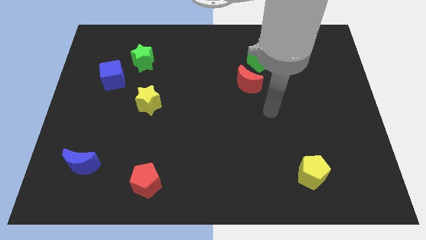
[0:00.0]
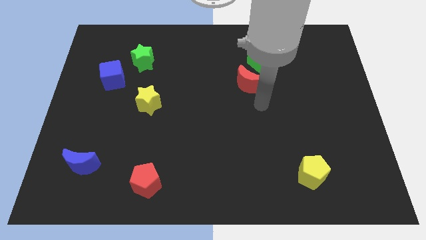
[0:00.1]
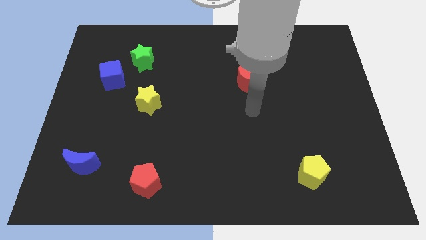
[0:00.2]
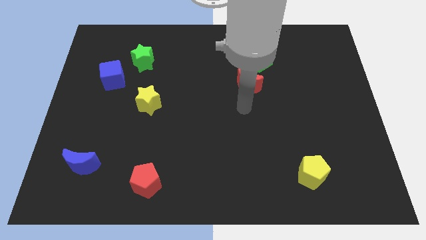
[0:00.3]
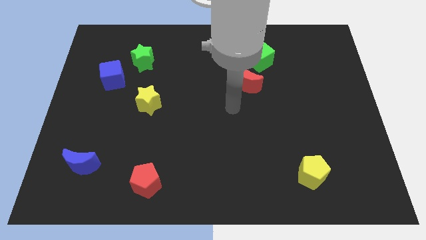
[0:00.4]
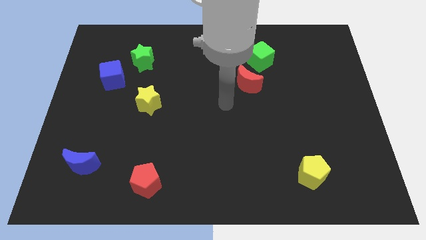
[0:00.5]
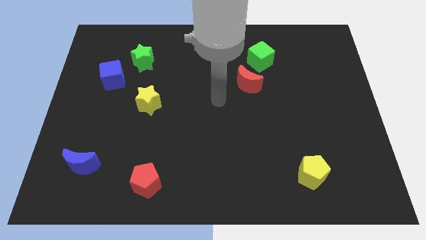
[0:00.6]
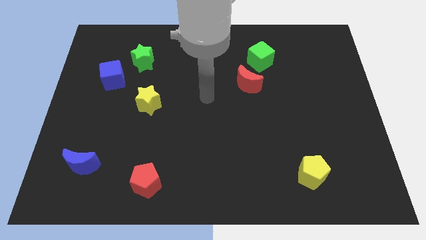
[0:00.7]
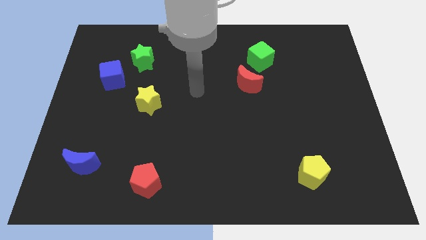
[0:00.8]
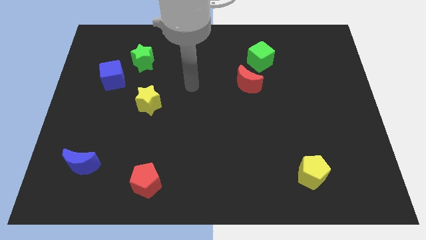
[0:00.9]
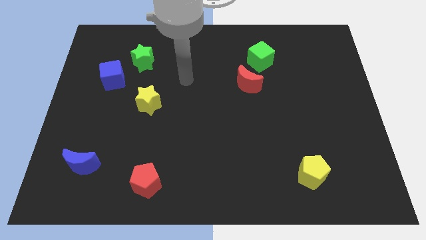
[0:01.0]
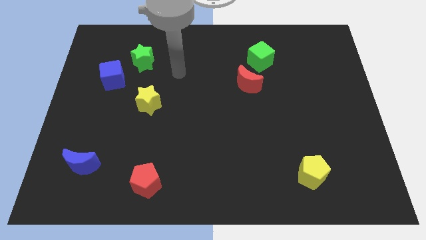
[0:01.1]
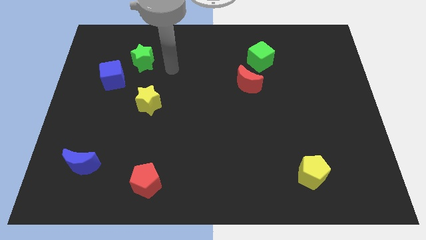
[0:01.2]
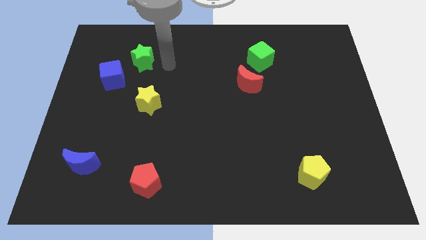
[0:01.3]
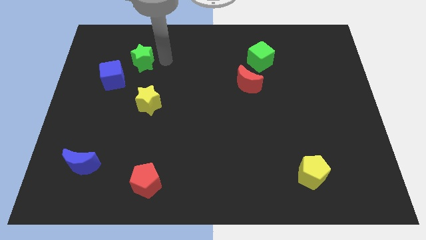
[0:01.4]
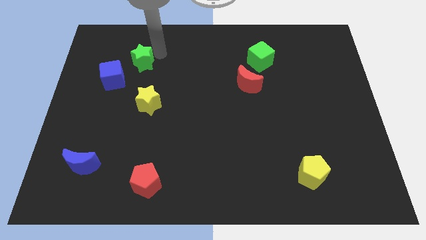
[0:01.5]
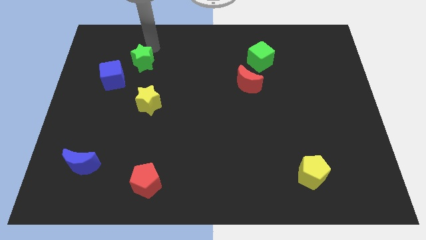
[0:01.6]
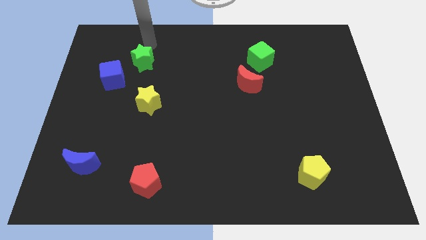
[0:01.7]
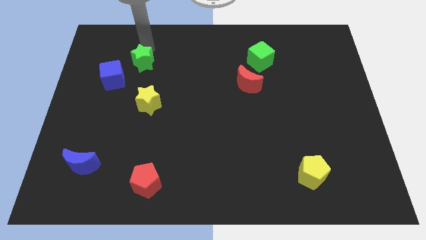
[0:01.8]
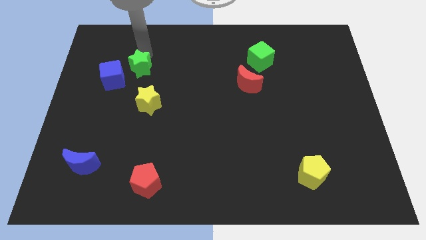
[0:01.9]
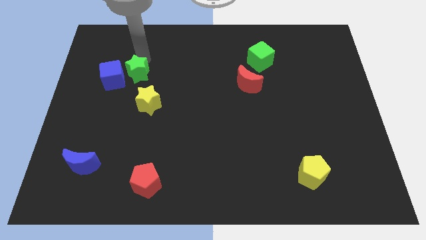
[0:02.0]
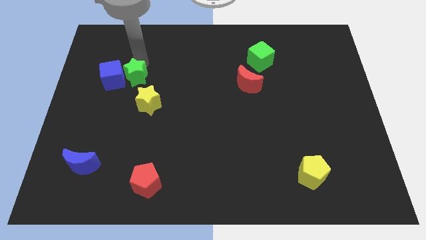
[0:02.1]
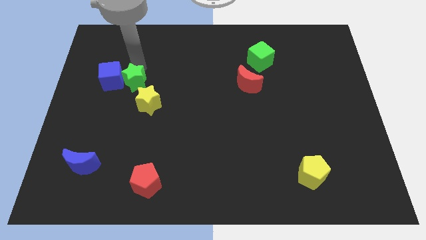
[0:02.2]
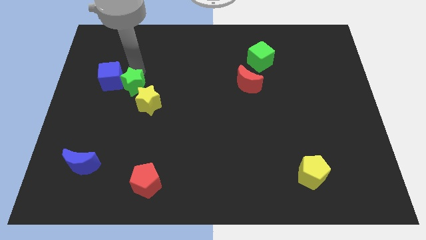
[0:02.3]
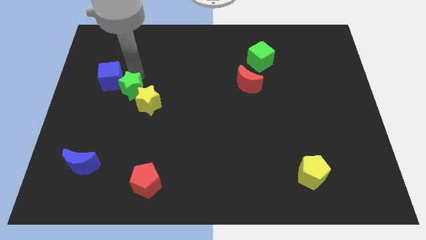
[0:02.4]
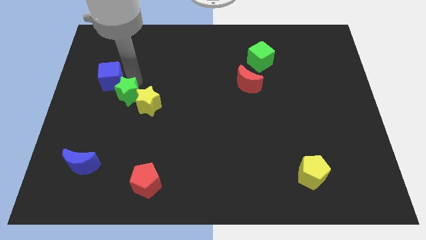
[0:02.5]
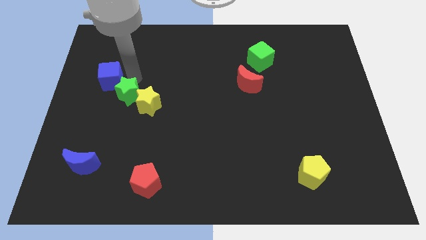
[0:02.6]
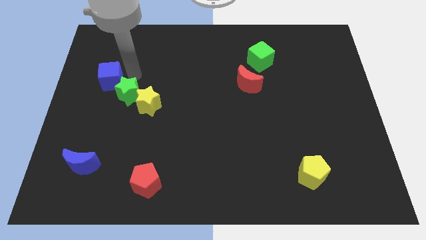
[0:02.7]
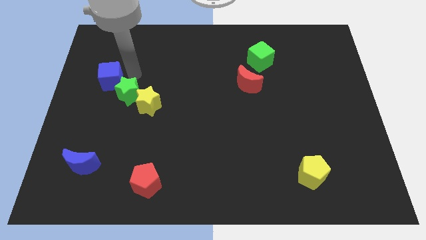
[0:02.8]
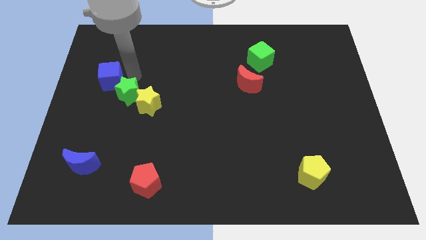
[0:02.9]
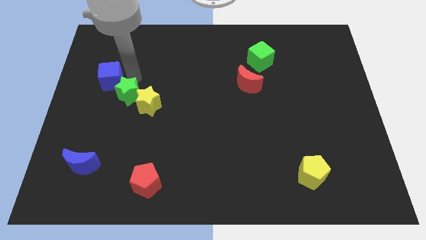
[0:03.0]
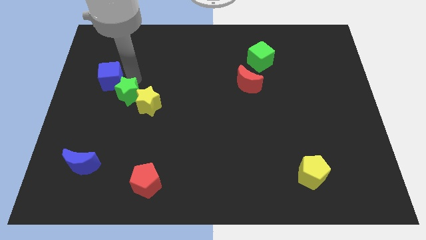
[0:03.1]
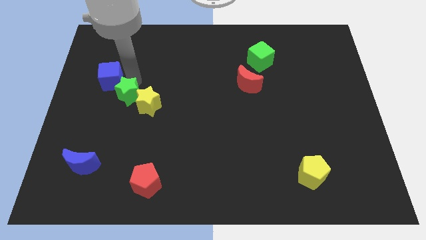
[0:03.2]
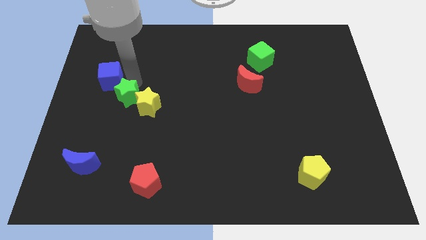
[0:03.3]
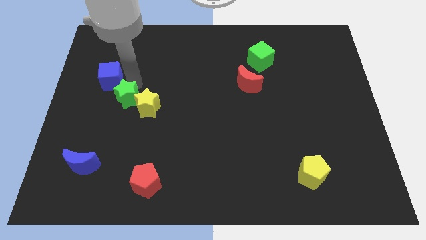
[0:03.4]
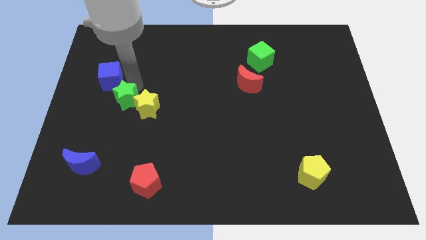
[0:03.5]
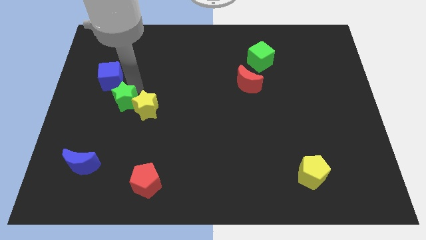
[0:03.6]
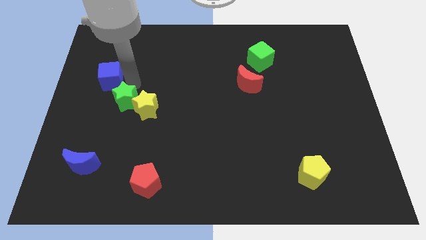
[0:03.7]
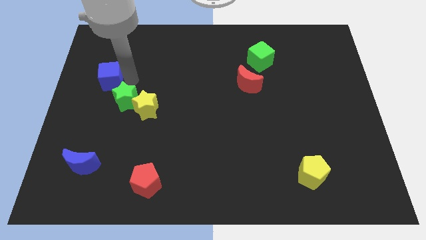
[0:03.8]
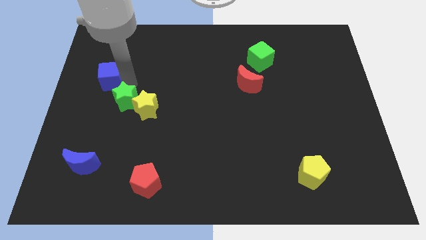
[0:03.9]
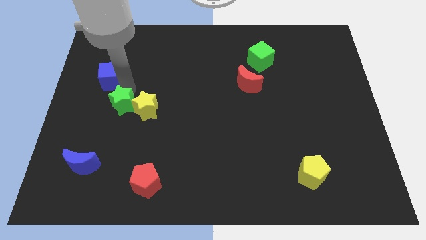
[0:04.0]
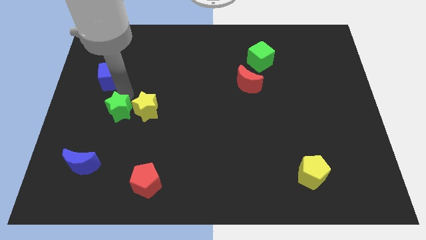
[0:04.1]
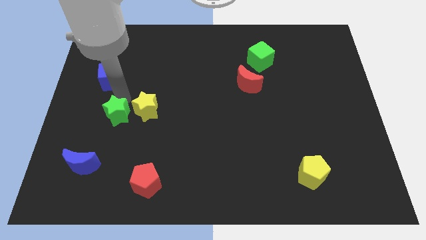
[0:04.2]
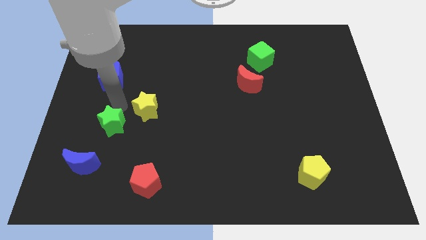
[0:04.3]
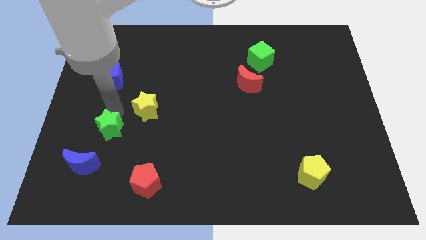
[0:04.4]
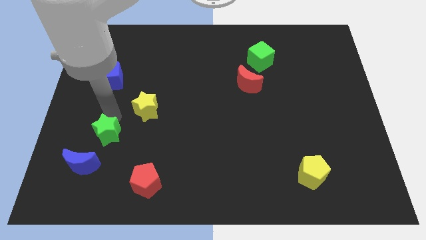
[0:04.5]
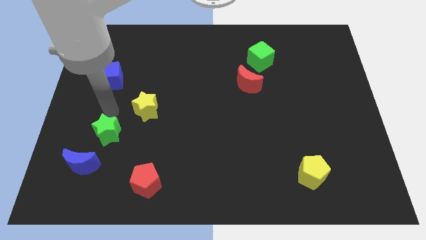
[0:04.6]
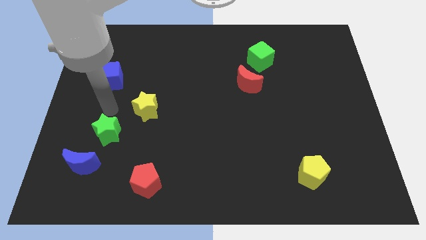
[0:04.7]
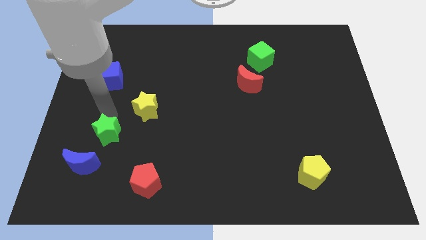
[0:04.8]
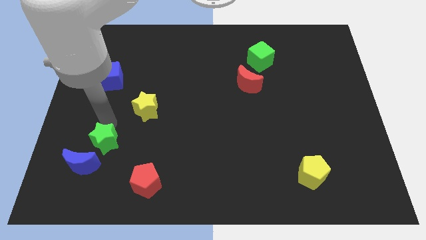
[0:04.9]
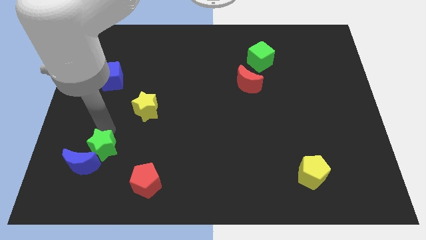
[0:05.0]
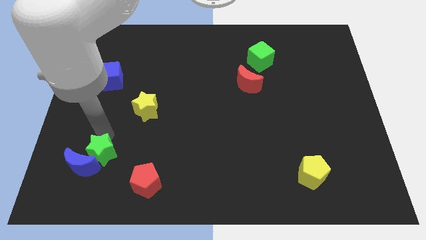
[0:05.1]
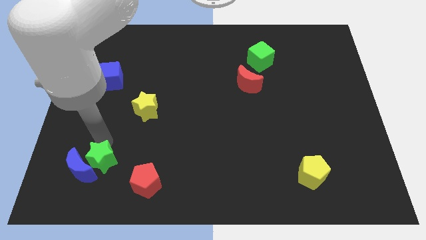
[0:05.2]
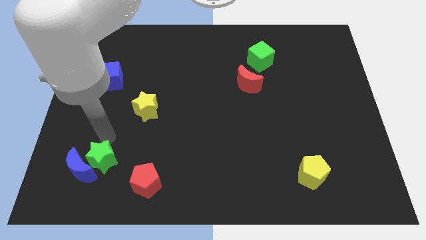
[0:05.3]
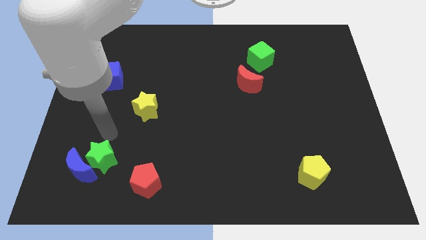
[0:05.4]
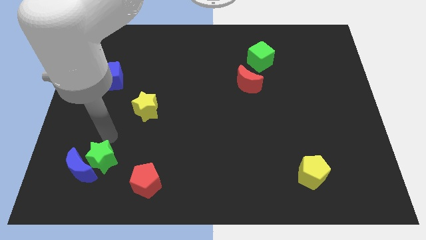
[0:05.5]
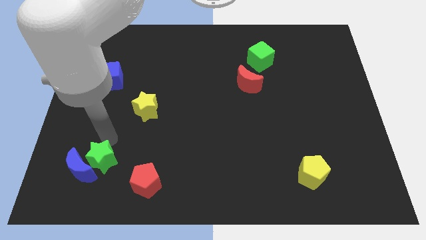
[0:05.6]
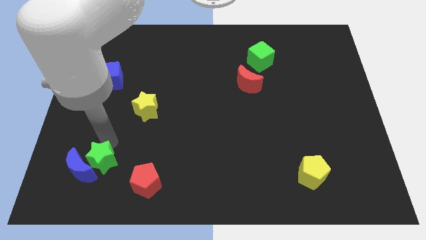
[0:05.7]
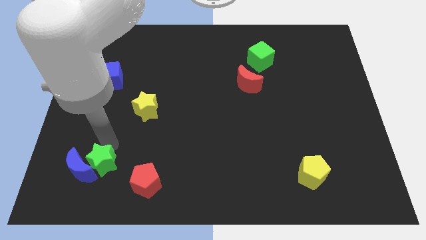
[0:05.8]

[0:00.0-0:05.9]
push the green star just left of the red pentagon
